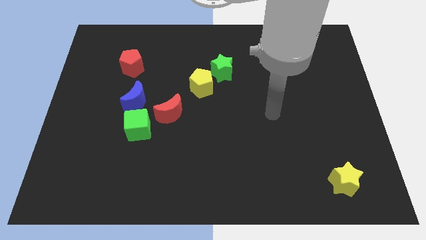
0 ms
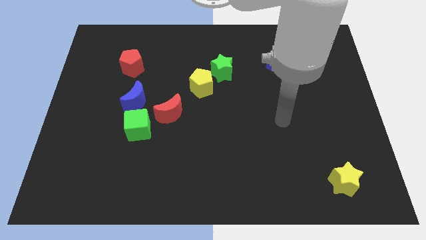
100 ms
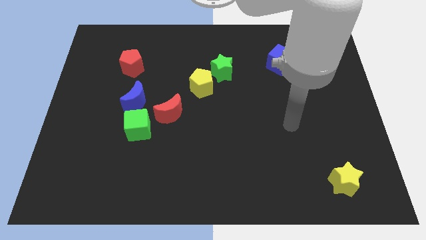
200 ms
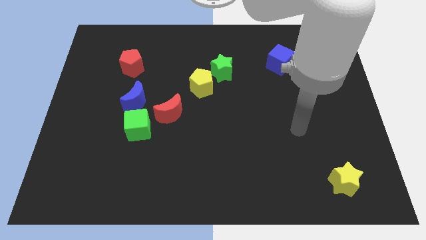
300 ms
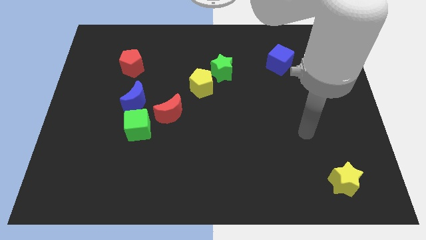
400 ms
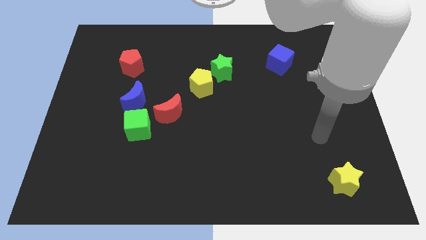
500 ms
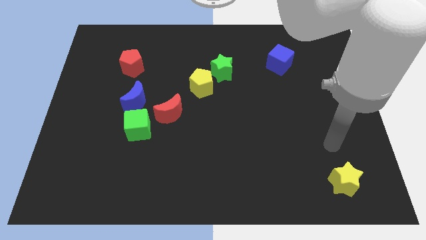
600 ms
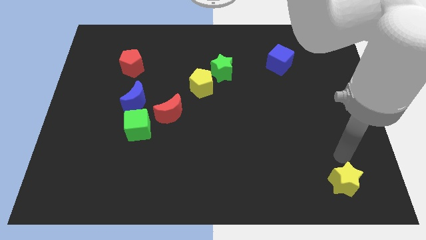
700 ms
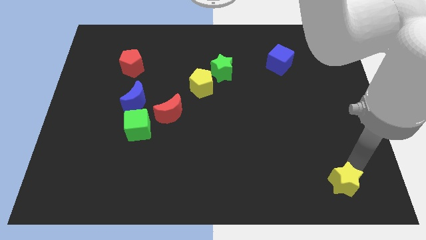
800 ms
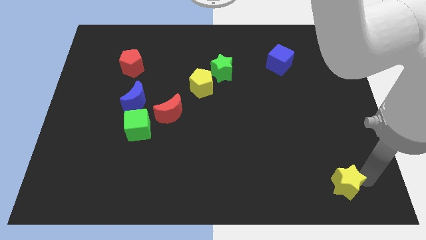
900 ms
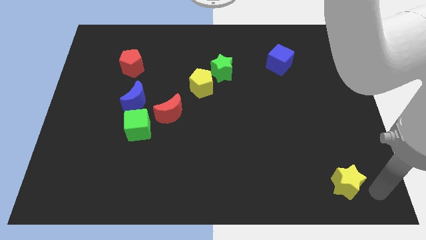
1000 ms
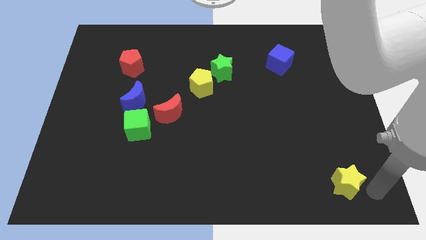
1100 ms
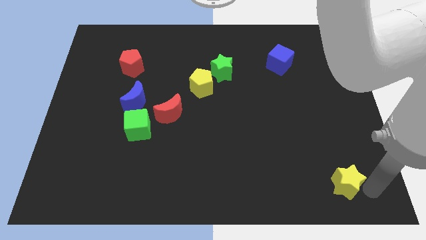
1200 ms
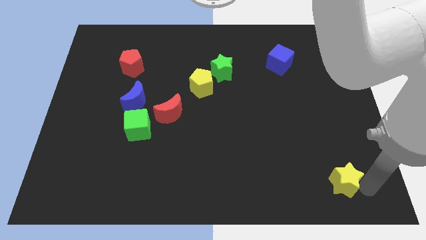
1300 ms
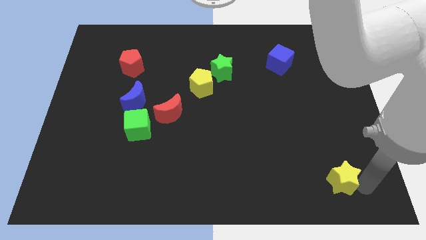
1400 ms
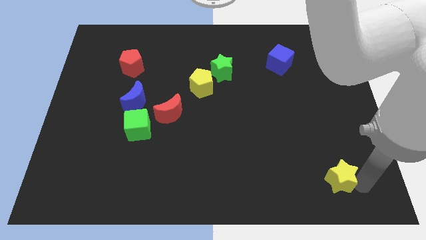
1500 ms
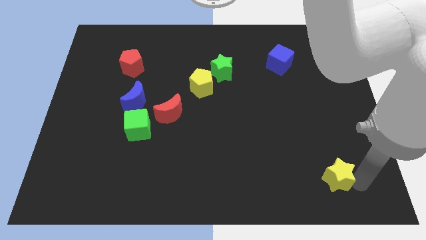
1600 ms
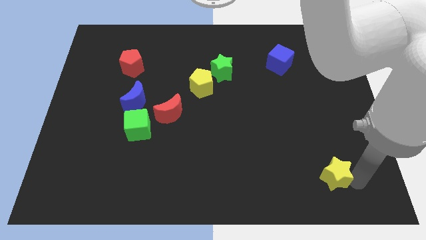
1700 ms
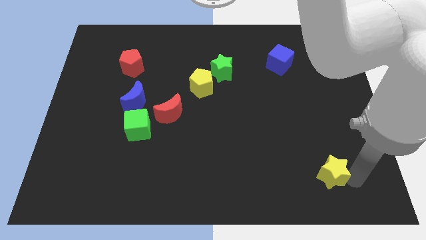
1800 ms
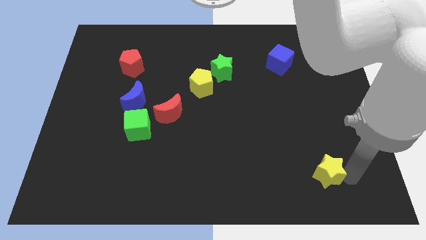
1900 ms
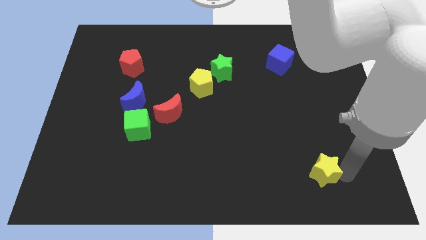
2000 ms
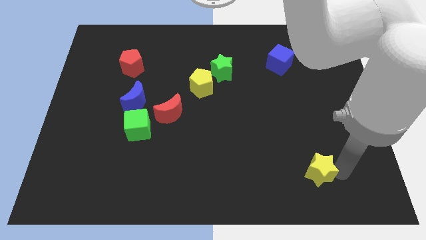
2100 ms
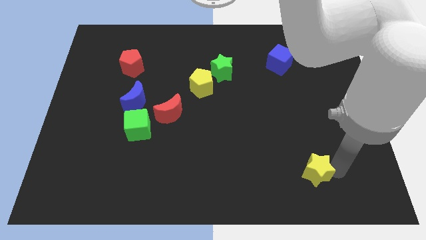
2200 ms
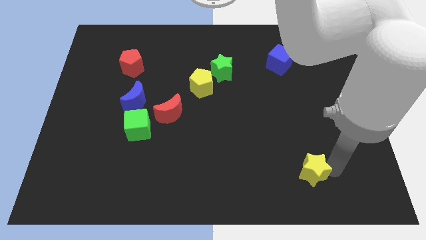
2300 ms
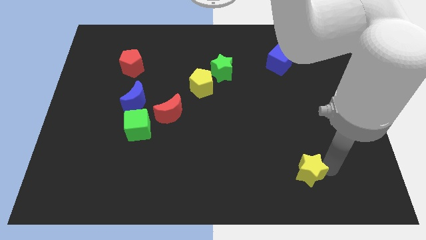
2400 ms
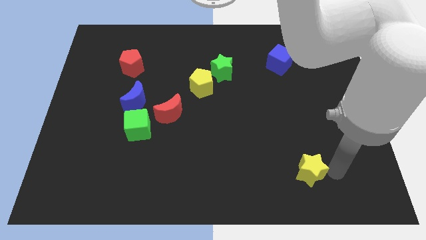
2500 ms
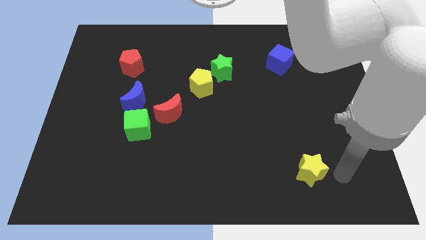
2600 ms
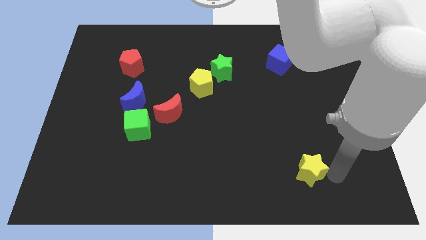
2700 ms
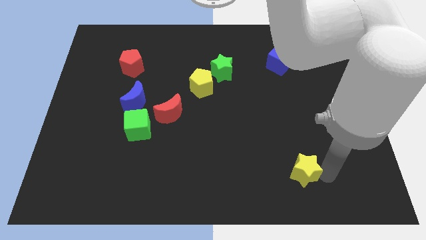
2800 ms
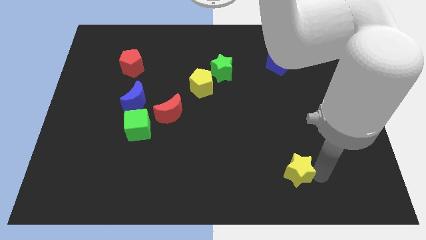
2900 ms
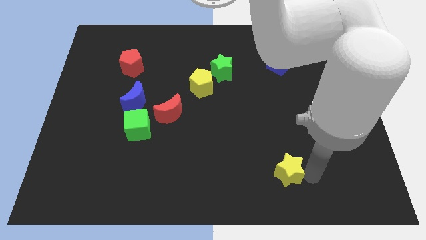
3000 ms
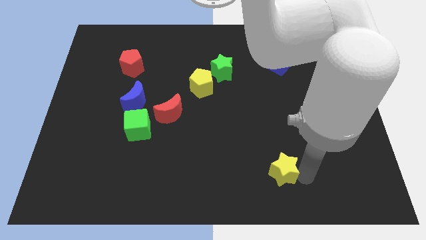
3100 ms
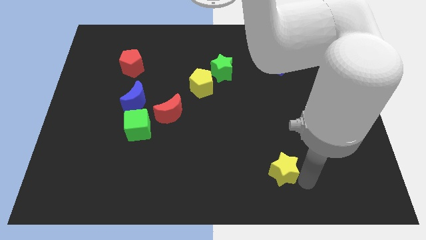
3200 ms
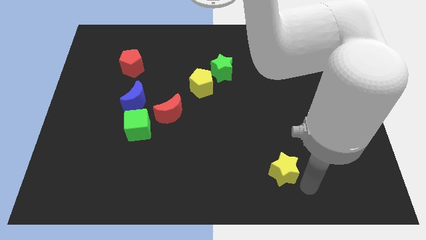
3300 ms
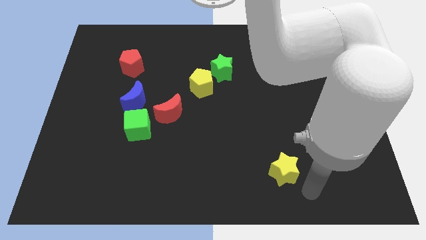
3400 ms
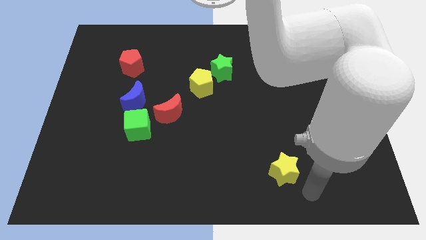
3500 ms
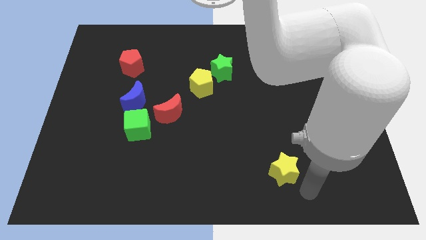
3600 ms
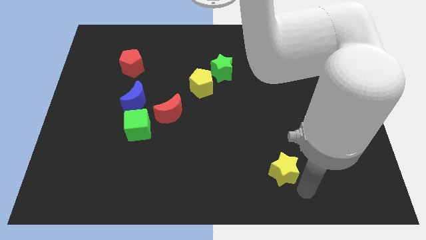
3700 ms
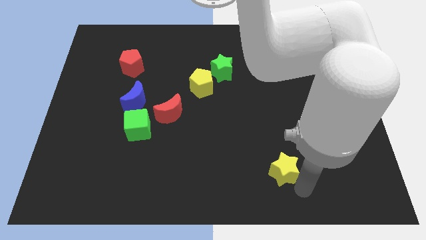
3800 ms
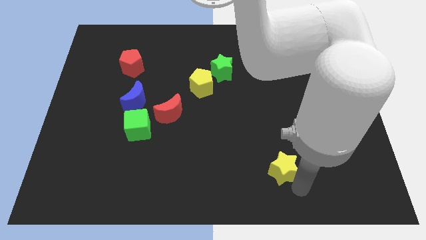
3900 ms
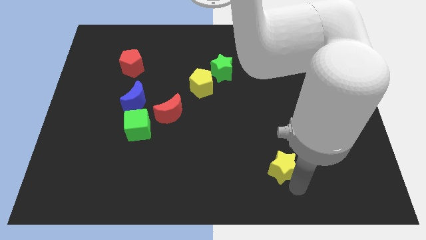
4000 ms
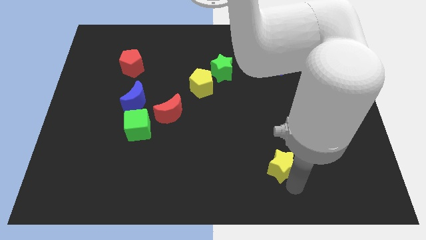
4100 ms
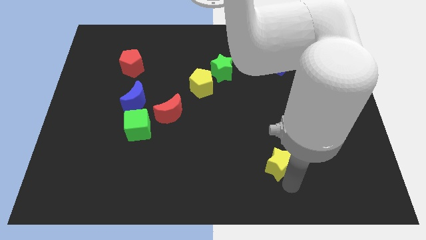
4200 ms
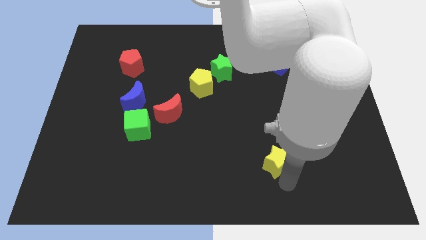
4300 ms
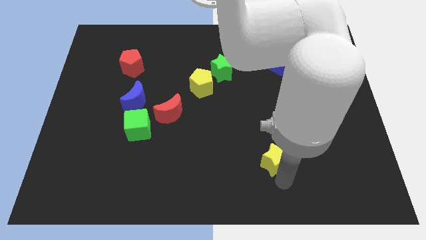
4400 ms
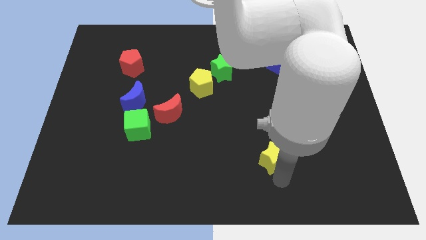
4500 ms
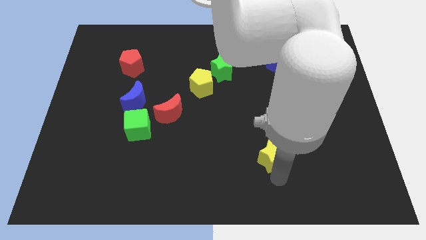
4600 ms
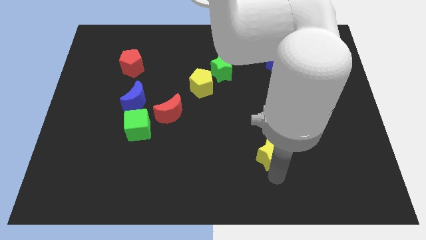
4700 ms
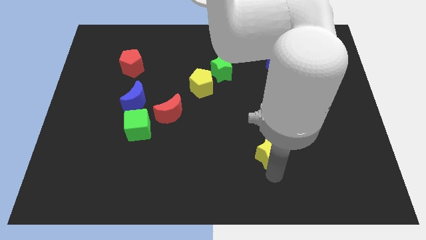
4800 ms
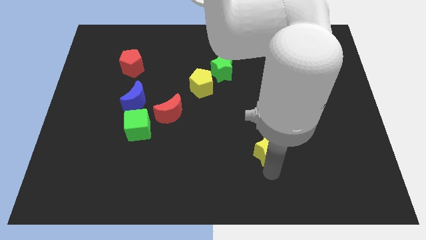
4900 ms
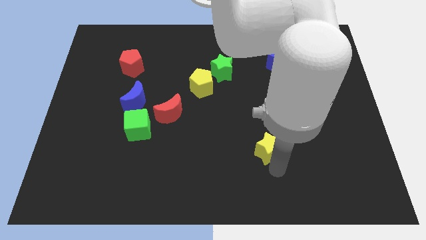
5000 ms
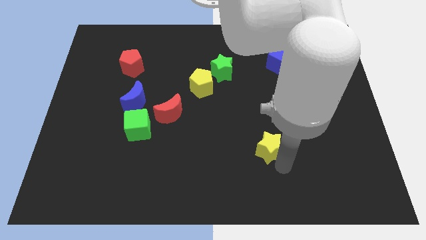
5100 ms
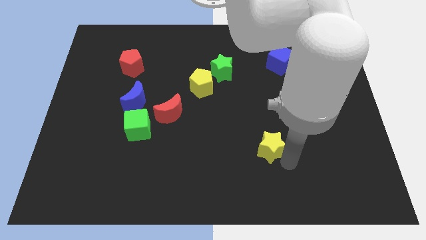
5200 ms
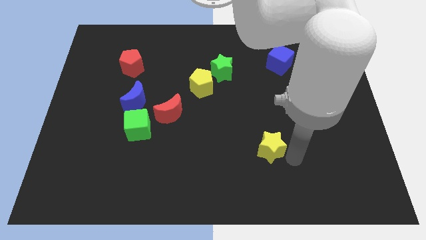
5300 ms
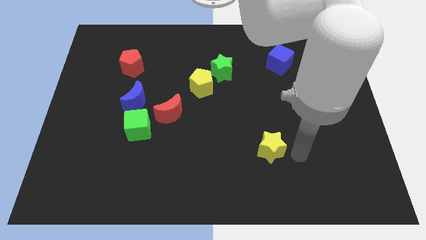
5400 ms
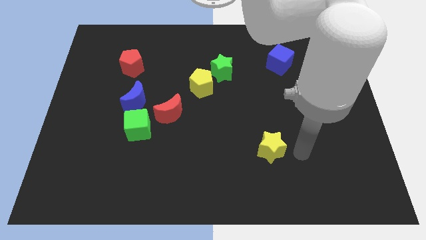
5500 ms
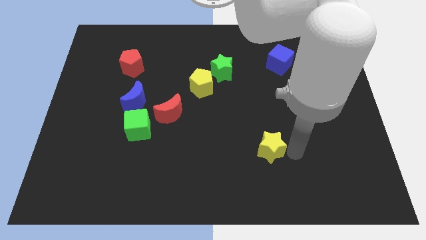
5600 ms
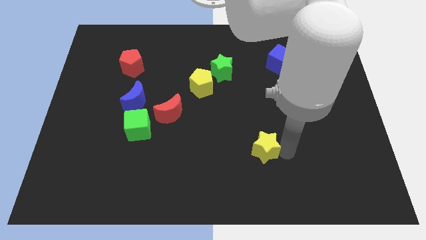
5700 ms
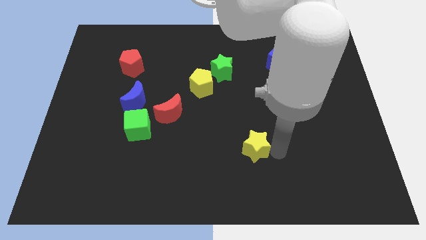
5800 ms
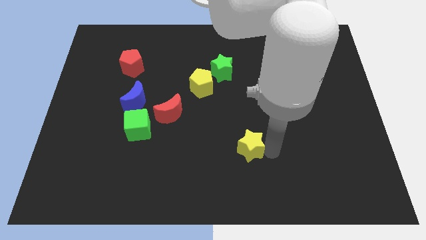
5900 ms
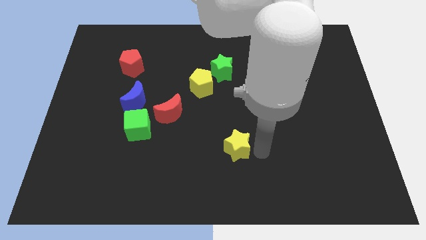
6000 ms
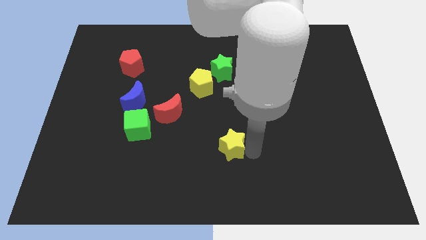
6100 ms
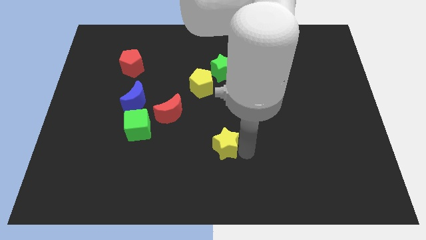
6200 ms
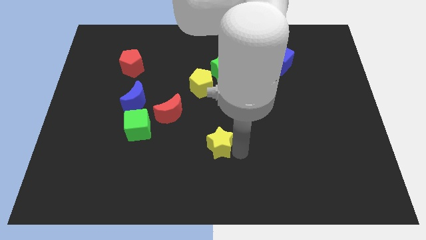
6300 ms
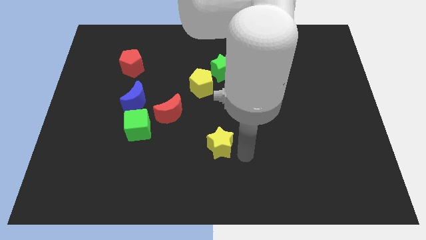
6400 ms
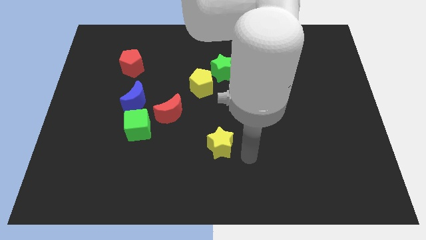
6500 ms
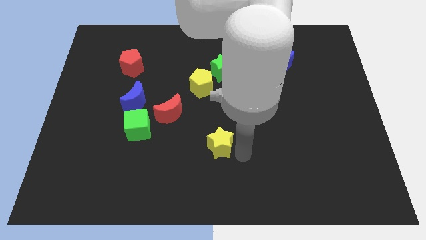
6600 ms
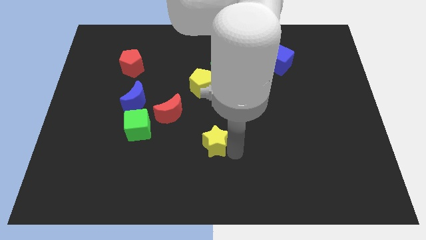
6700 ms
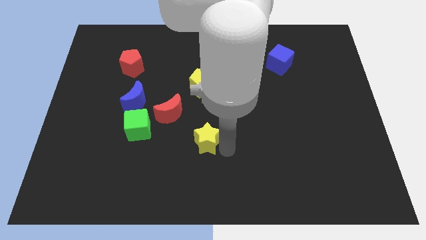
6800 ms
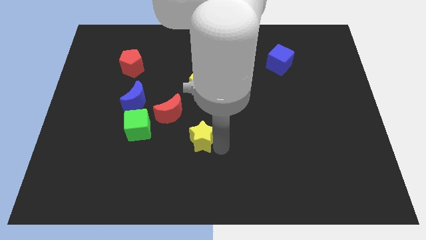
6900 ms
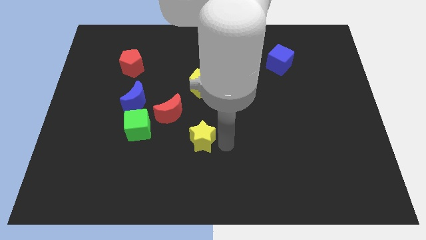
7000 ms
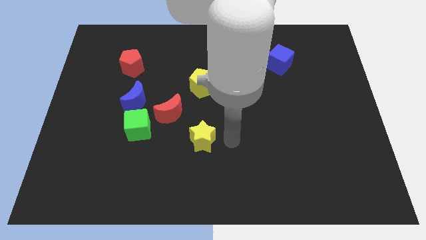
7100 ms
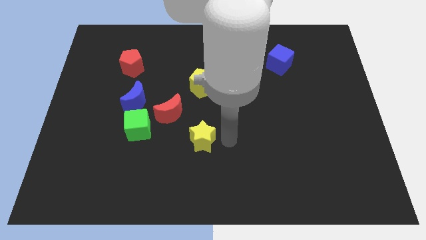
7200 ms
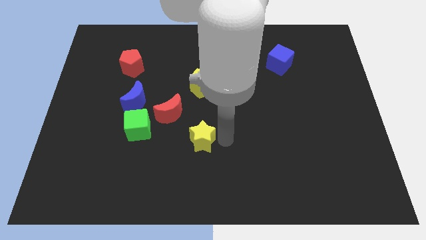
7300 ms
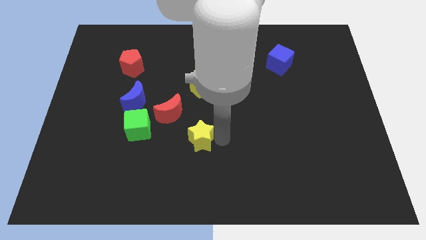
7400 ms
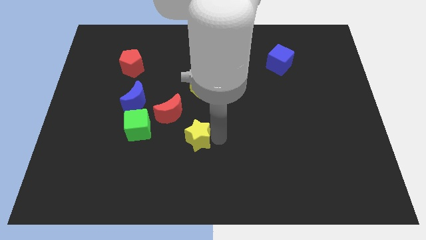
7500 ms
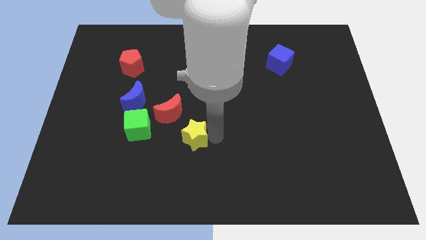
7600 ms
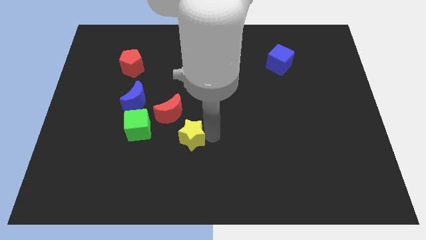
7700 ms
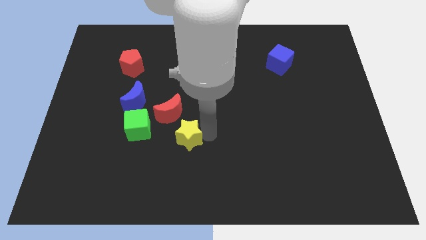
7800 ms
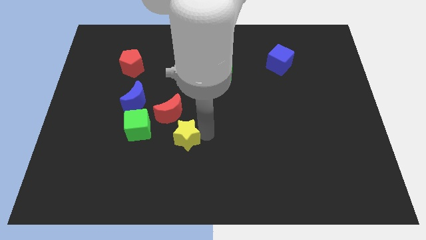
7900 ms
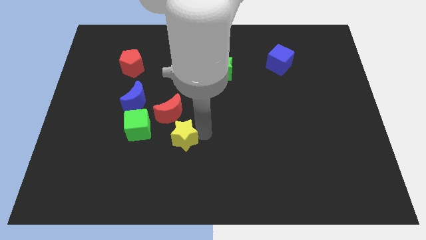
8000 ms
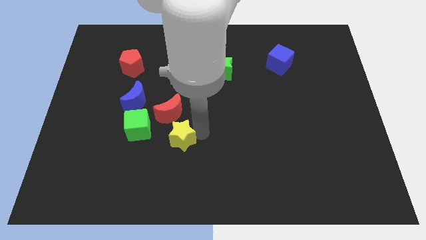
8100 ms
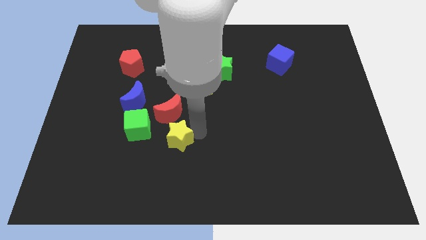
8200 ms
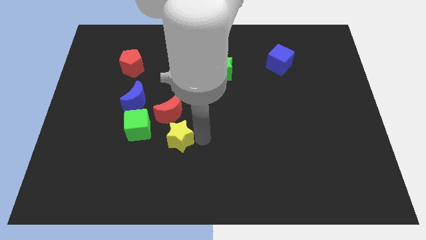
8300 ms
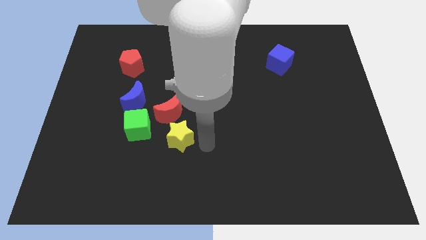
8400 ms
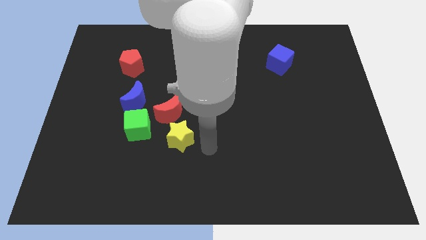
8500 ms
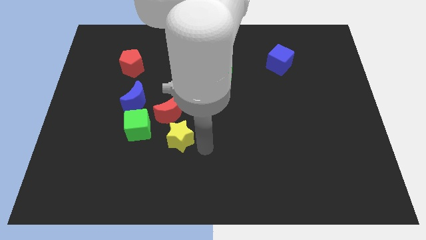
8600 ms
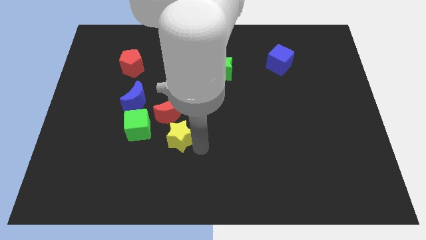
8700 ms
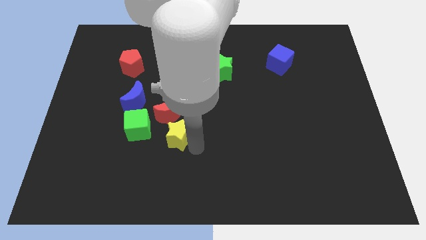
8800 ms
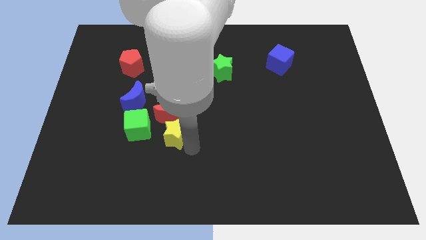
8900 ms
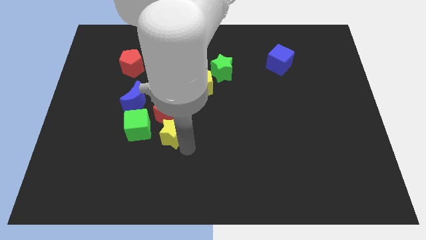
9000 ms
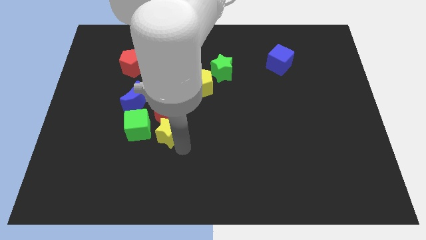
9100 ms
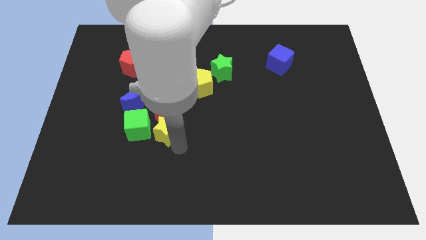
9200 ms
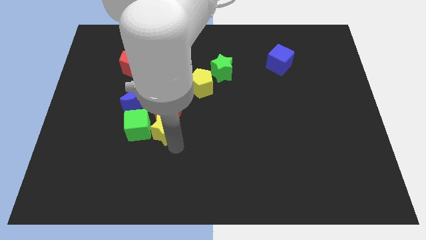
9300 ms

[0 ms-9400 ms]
move the yellow star towards the green cube
